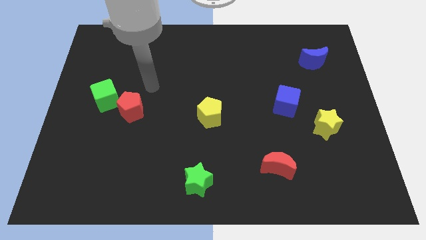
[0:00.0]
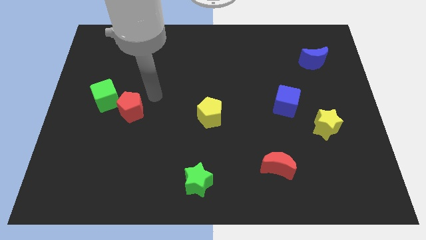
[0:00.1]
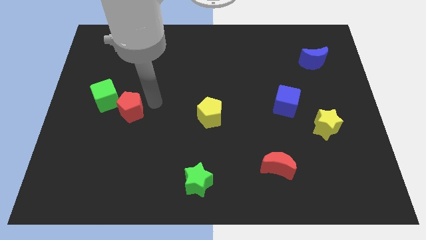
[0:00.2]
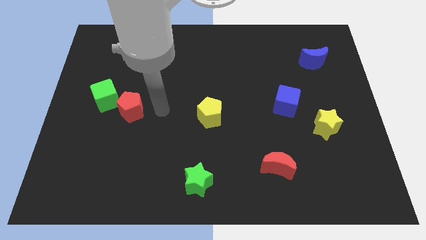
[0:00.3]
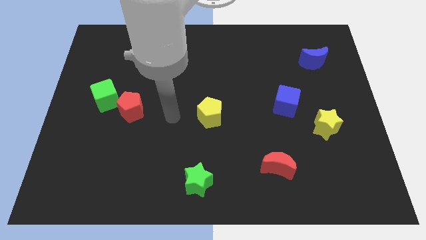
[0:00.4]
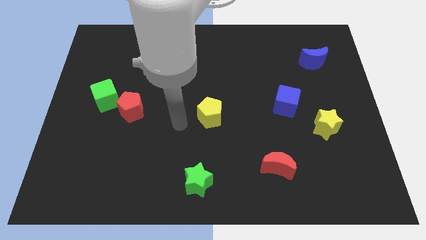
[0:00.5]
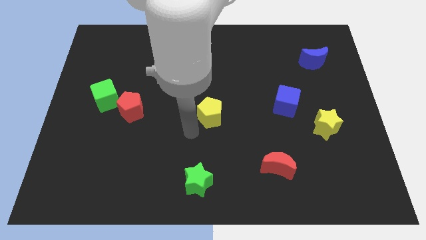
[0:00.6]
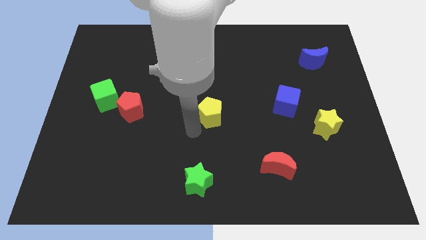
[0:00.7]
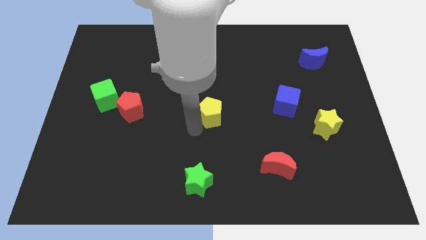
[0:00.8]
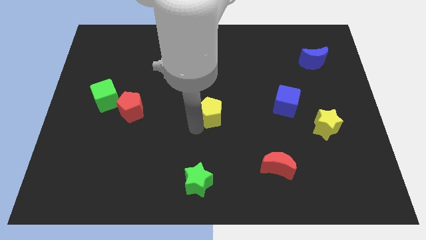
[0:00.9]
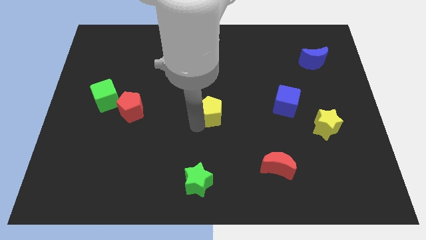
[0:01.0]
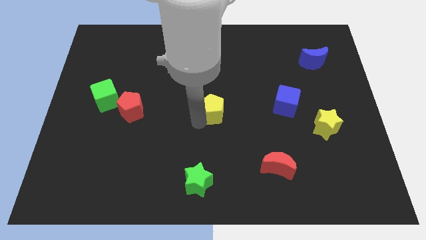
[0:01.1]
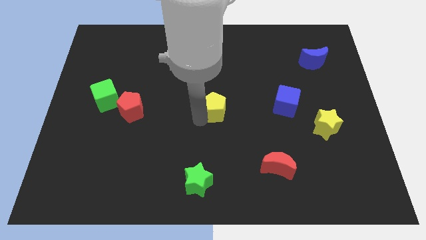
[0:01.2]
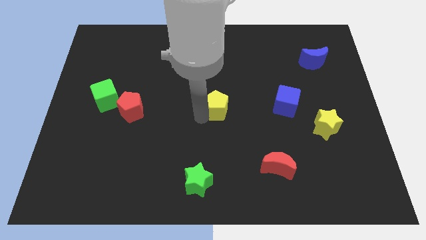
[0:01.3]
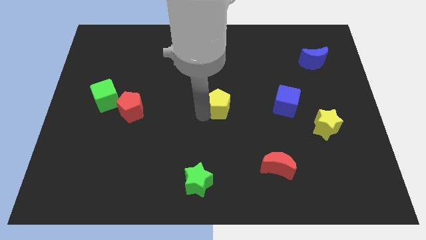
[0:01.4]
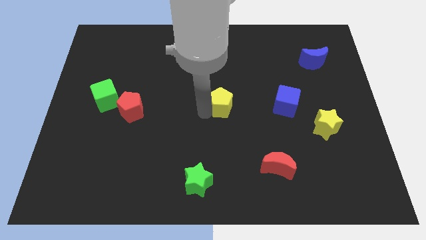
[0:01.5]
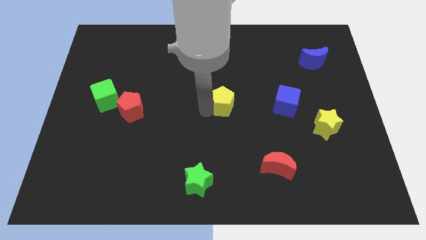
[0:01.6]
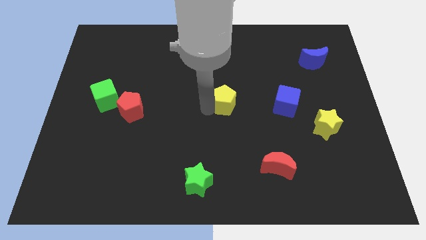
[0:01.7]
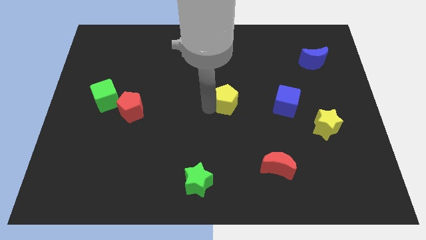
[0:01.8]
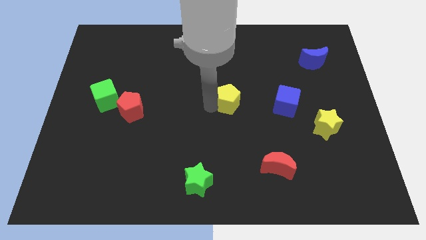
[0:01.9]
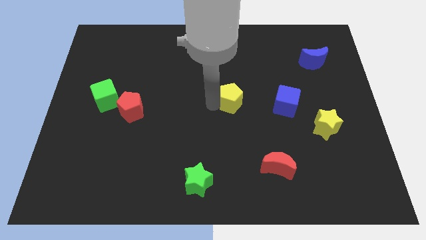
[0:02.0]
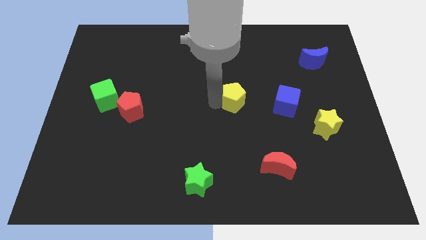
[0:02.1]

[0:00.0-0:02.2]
push the yellow pentagon upwards and to the right a bit

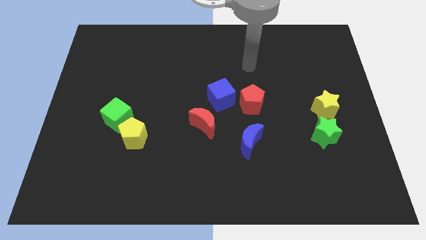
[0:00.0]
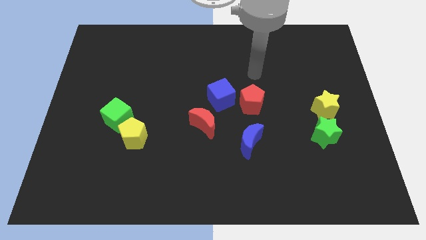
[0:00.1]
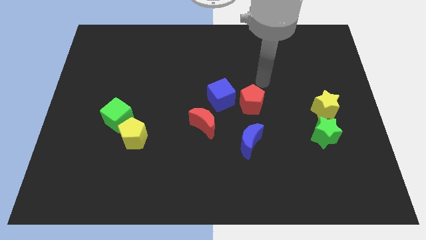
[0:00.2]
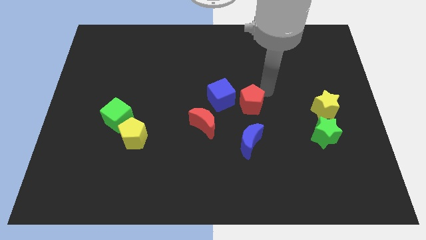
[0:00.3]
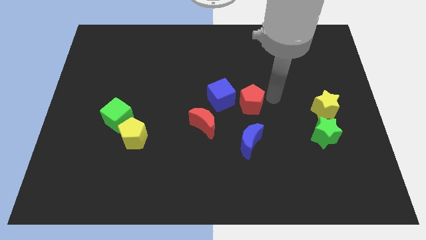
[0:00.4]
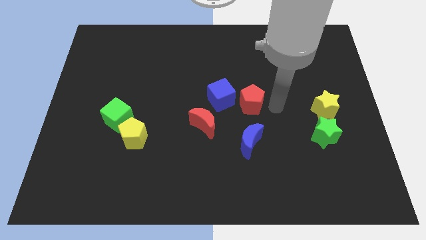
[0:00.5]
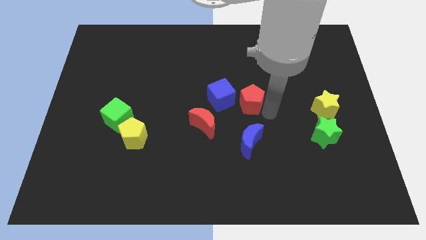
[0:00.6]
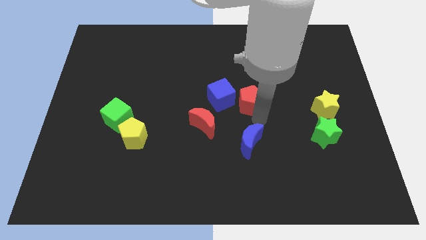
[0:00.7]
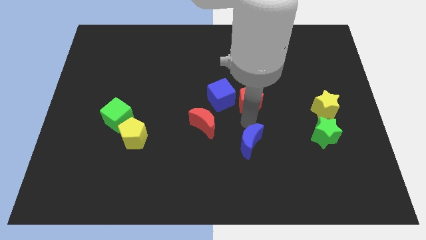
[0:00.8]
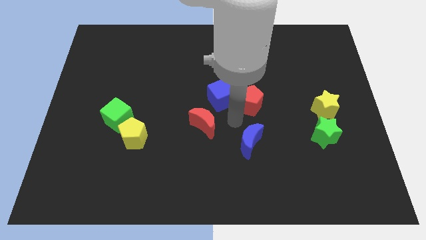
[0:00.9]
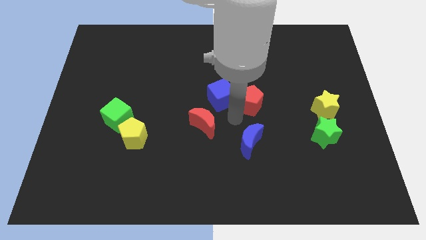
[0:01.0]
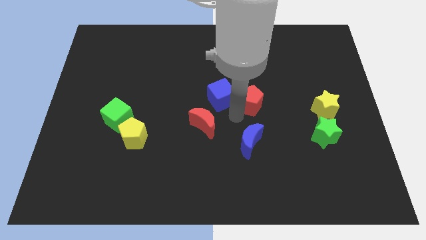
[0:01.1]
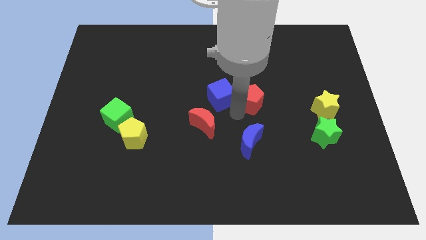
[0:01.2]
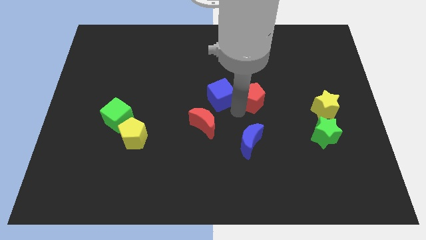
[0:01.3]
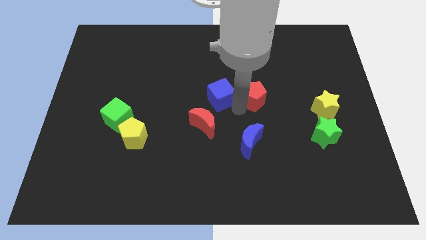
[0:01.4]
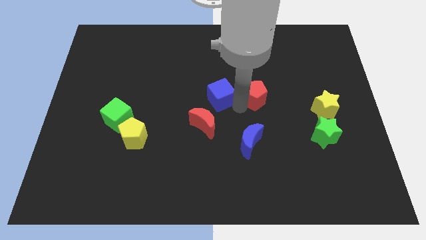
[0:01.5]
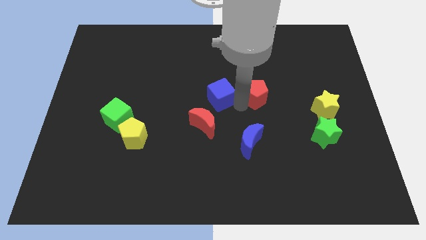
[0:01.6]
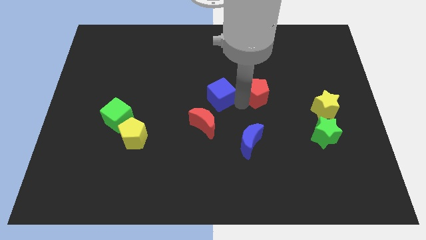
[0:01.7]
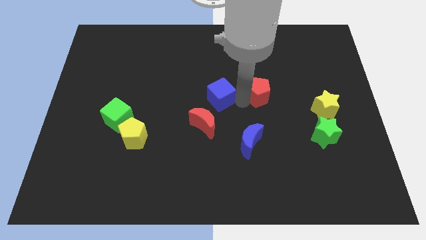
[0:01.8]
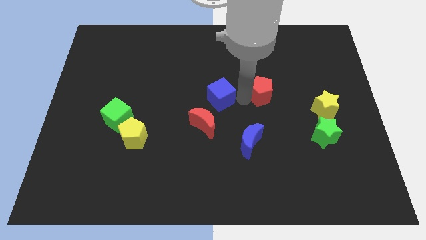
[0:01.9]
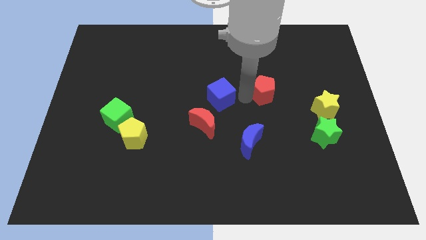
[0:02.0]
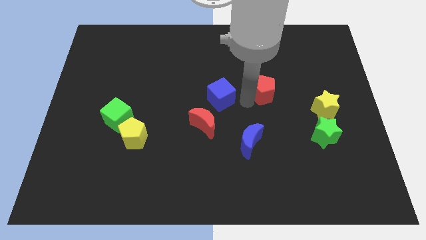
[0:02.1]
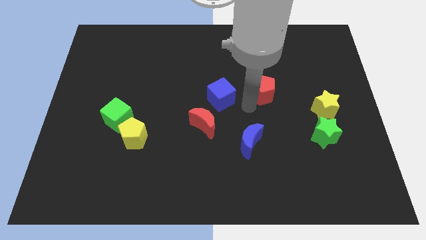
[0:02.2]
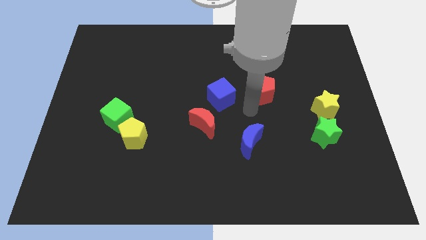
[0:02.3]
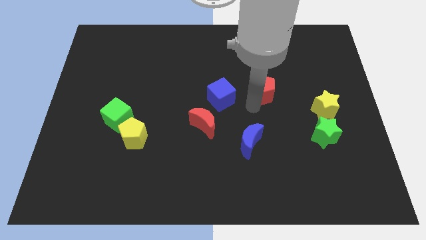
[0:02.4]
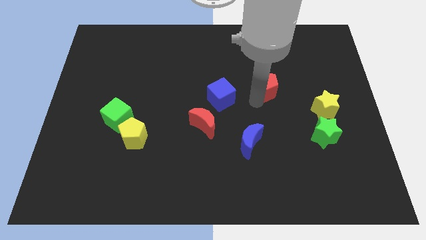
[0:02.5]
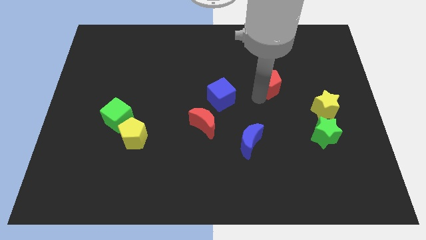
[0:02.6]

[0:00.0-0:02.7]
push the red pentagon somewhat upwards and right

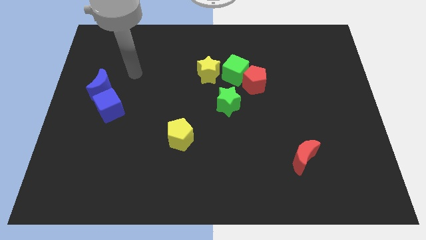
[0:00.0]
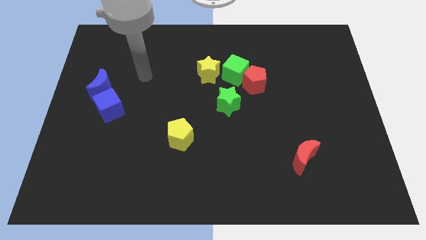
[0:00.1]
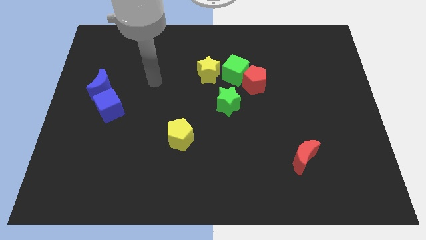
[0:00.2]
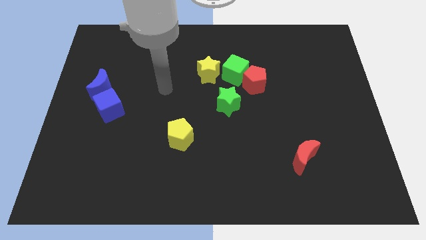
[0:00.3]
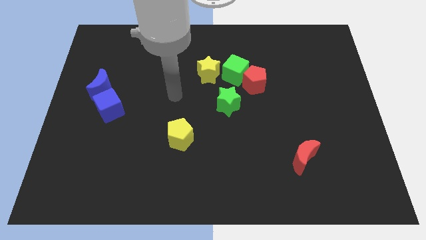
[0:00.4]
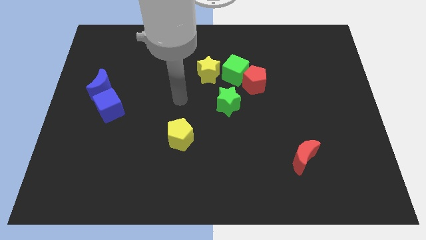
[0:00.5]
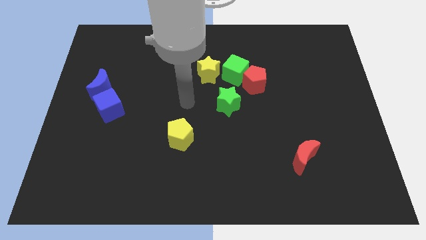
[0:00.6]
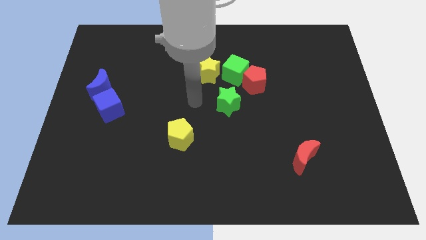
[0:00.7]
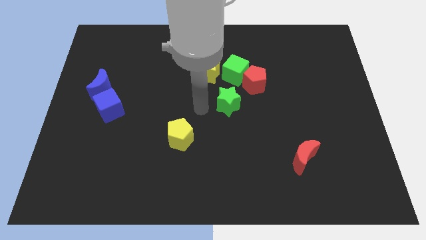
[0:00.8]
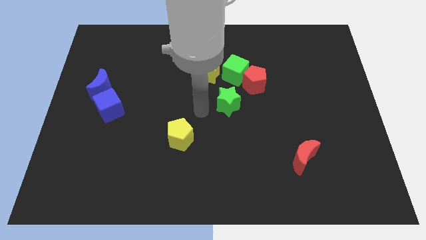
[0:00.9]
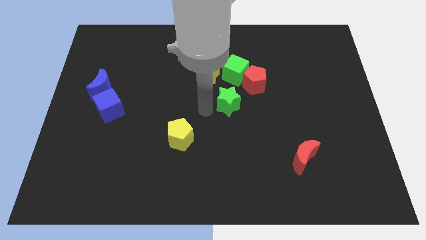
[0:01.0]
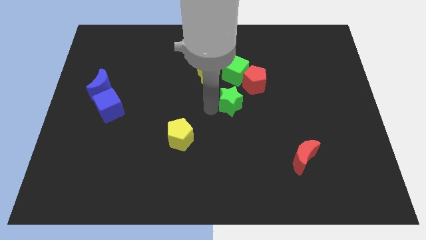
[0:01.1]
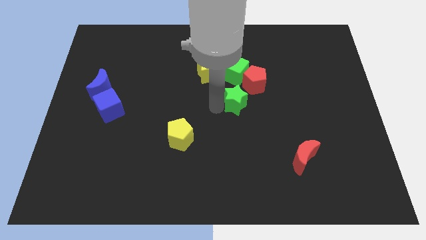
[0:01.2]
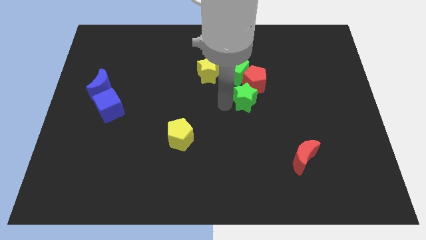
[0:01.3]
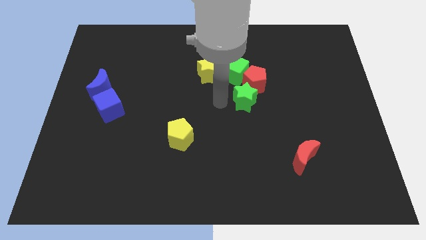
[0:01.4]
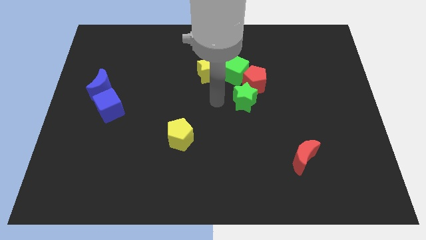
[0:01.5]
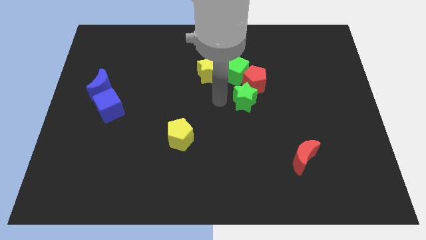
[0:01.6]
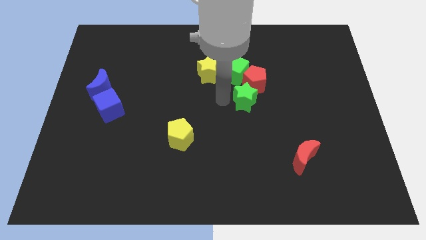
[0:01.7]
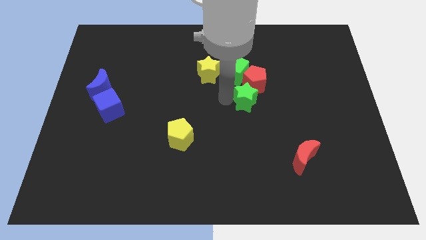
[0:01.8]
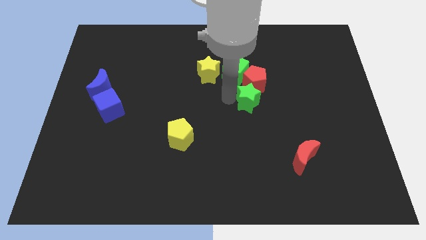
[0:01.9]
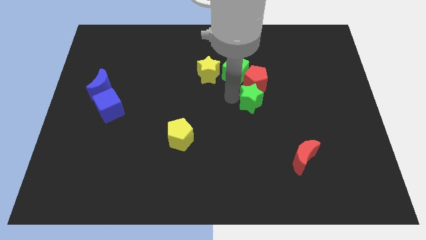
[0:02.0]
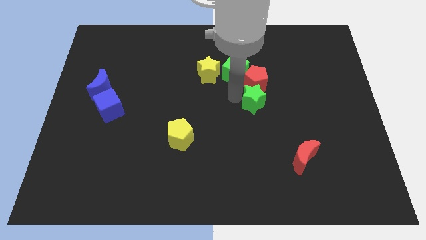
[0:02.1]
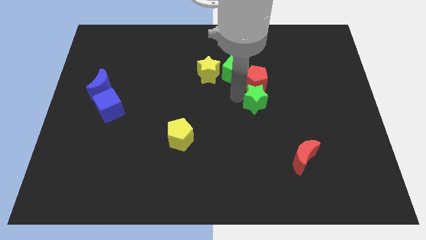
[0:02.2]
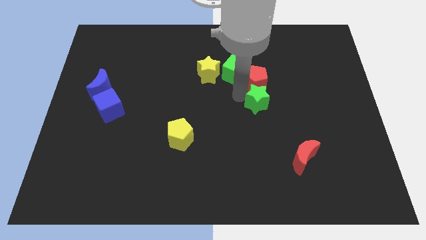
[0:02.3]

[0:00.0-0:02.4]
push the green star to the right a bit

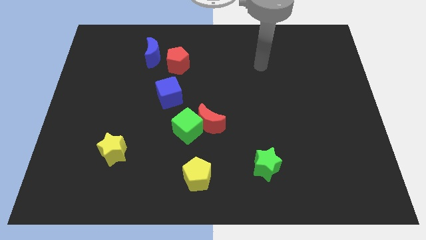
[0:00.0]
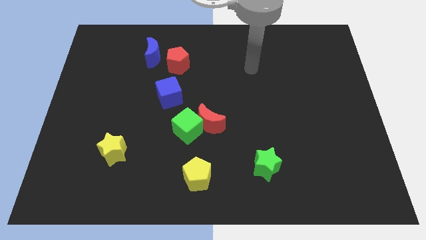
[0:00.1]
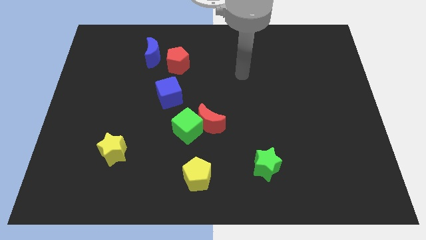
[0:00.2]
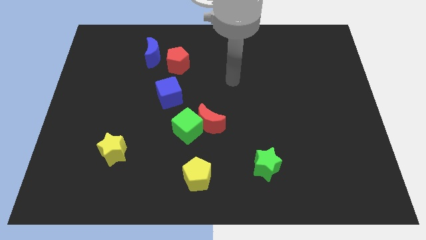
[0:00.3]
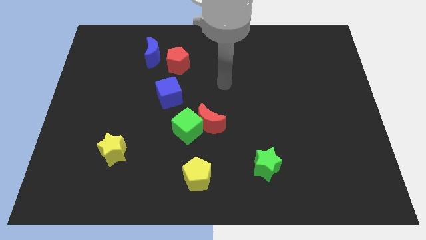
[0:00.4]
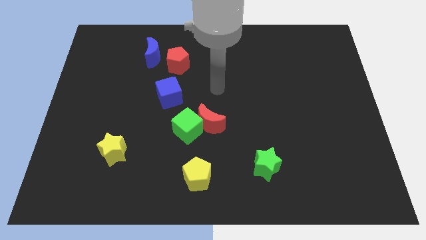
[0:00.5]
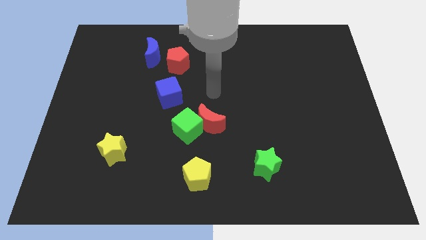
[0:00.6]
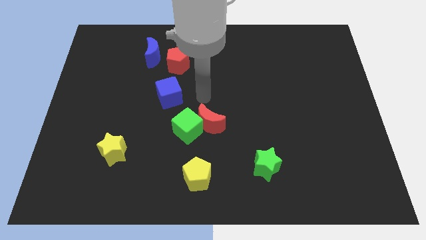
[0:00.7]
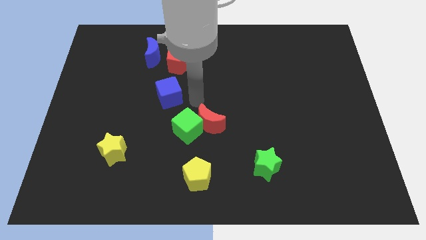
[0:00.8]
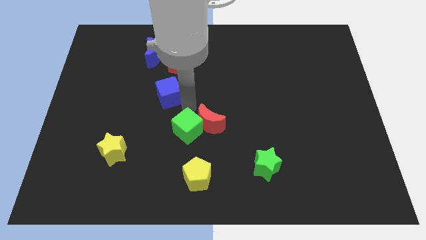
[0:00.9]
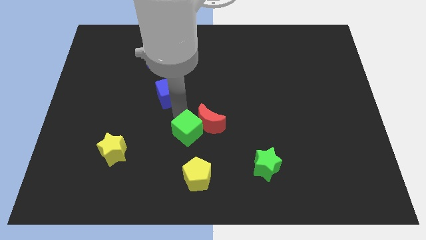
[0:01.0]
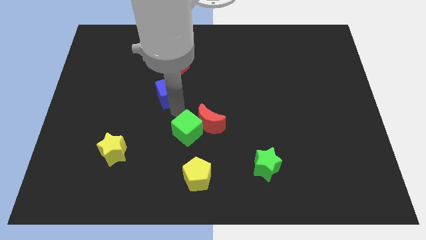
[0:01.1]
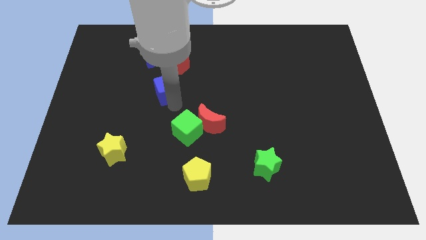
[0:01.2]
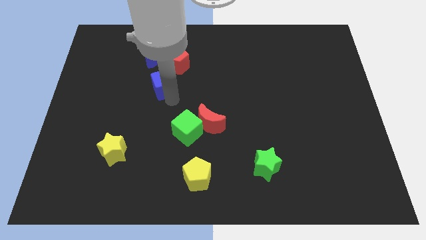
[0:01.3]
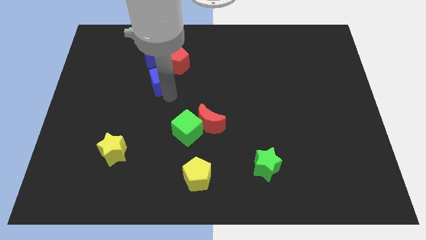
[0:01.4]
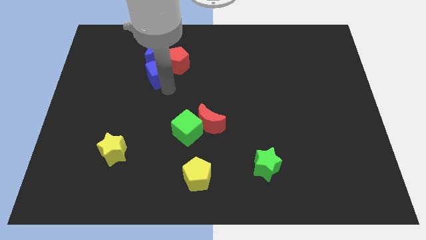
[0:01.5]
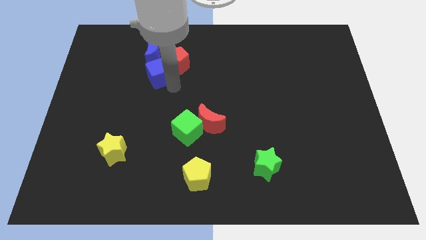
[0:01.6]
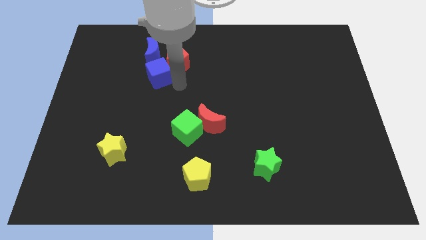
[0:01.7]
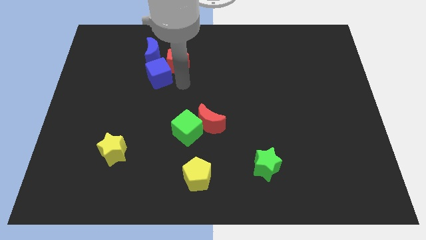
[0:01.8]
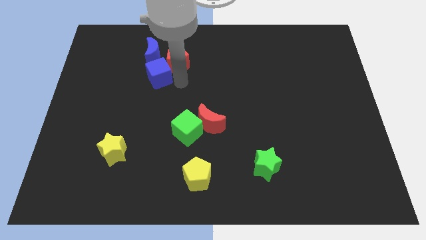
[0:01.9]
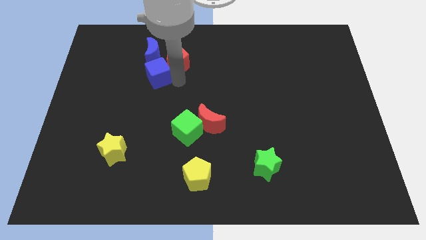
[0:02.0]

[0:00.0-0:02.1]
slightly slide the blue cube diagonally up and left
